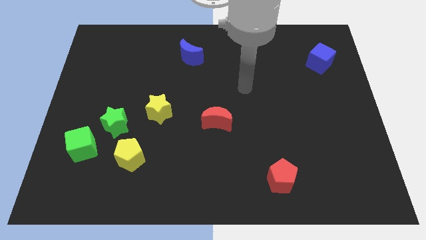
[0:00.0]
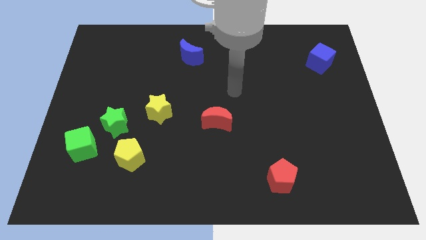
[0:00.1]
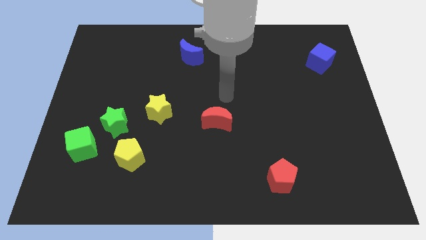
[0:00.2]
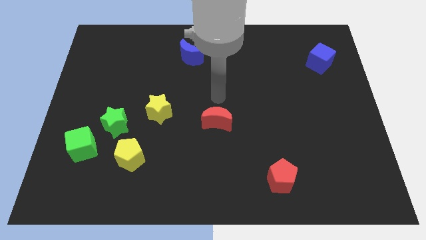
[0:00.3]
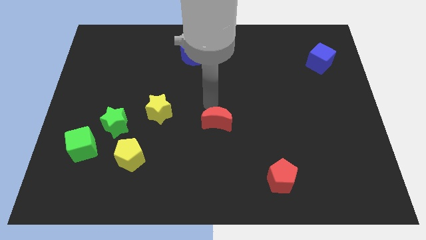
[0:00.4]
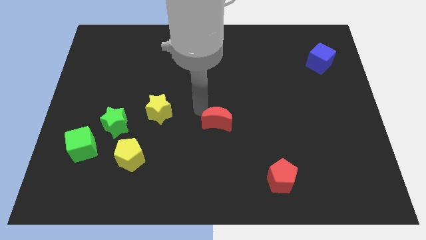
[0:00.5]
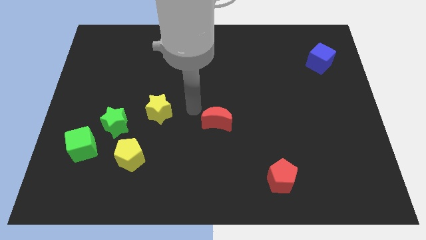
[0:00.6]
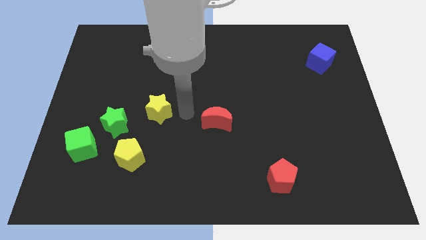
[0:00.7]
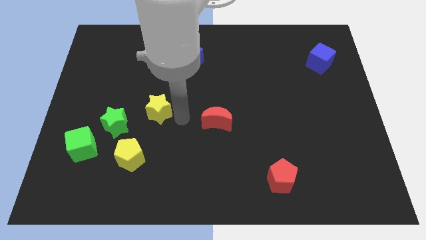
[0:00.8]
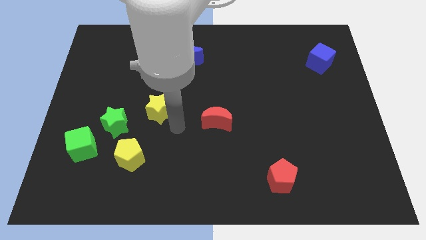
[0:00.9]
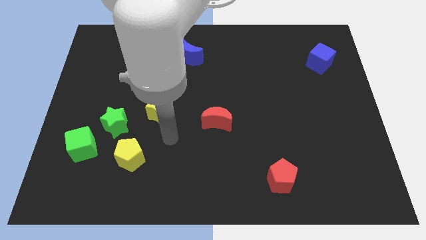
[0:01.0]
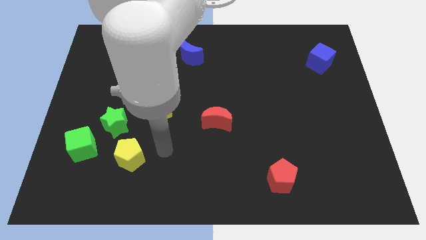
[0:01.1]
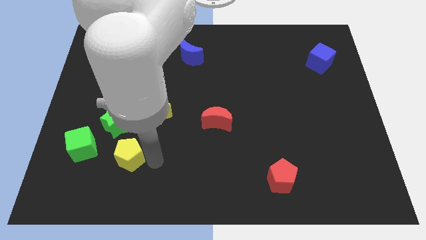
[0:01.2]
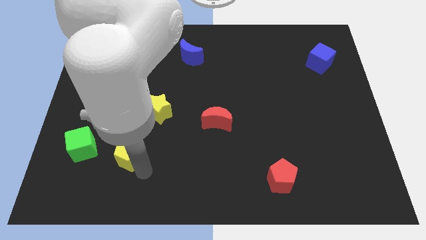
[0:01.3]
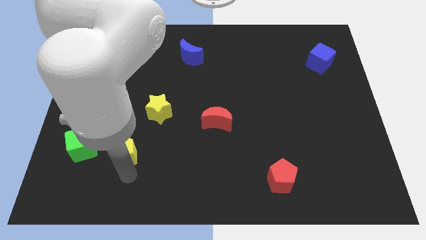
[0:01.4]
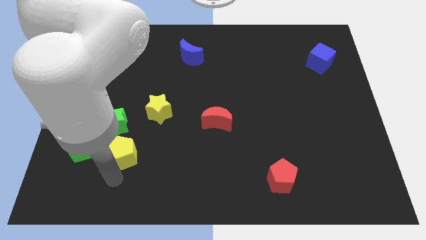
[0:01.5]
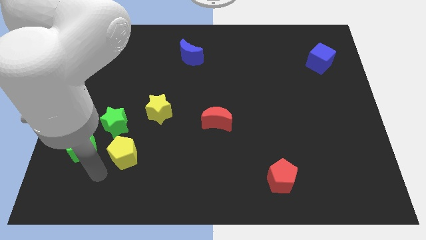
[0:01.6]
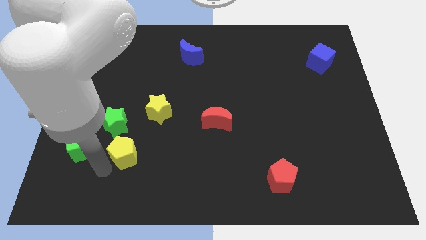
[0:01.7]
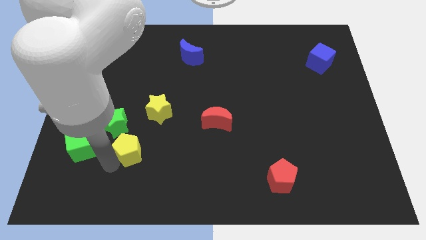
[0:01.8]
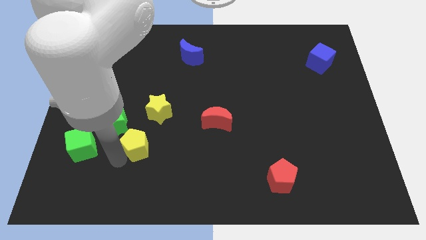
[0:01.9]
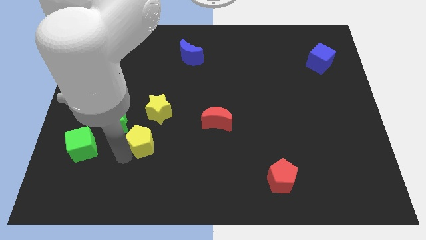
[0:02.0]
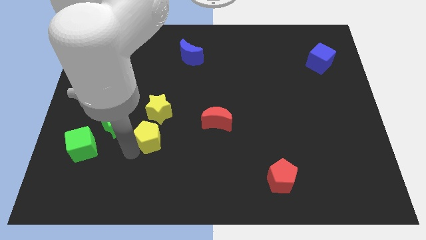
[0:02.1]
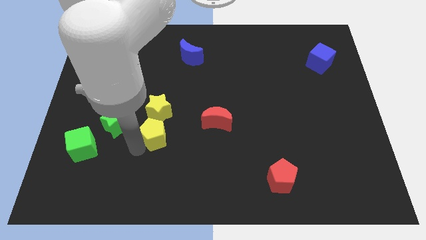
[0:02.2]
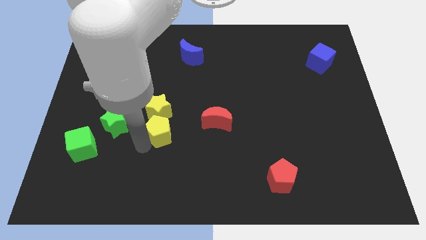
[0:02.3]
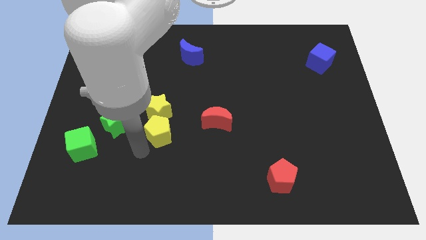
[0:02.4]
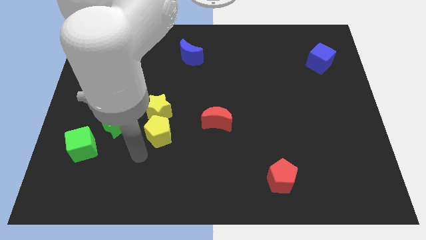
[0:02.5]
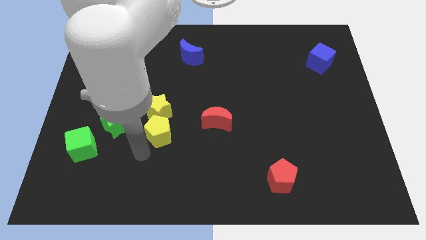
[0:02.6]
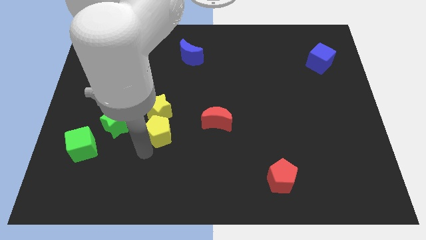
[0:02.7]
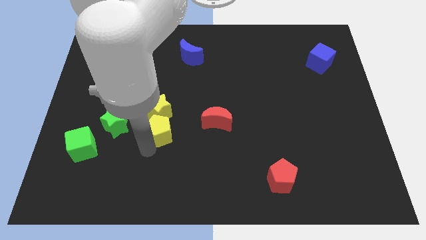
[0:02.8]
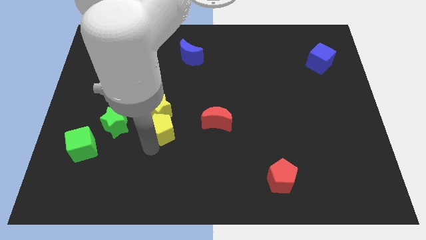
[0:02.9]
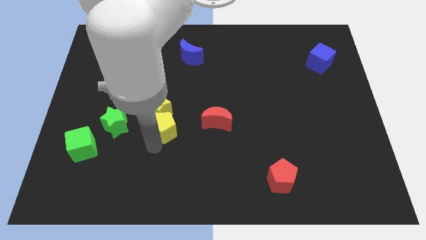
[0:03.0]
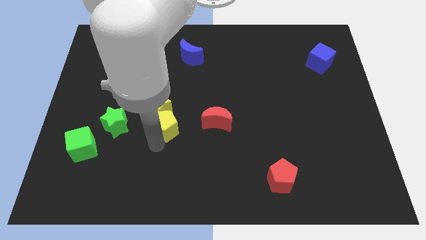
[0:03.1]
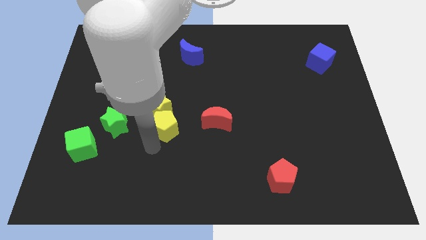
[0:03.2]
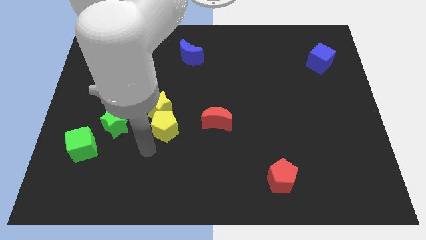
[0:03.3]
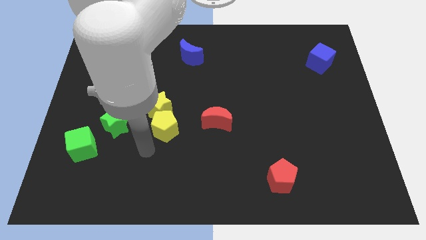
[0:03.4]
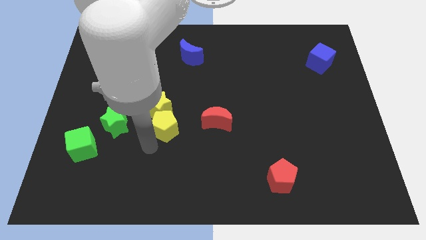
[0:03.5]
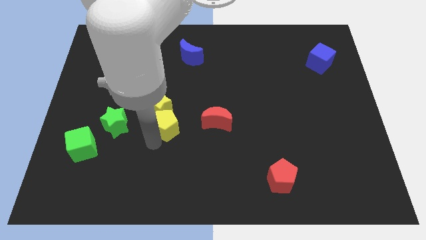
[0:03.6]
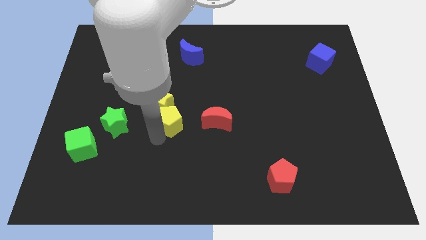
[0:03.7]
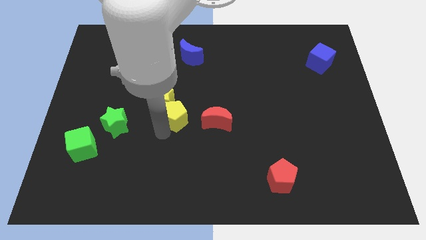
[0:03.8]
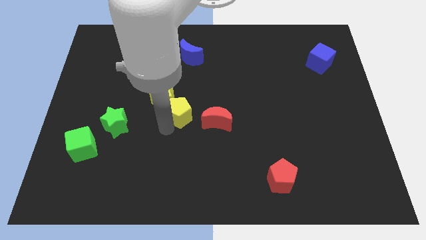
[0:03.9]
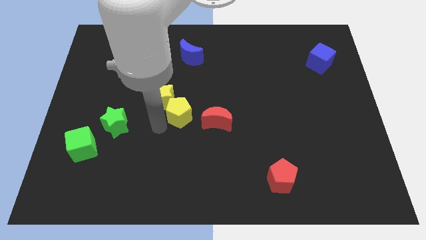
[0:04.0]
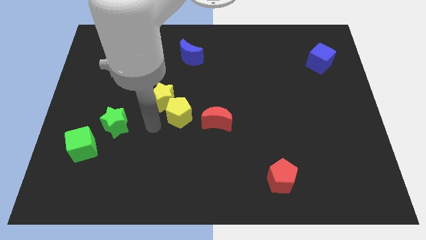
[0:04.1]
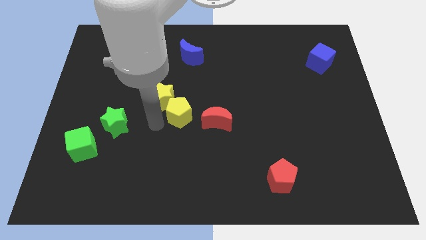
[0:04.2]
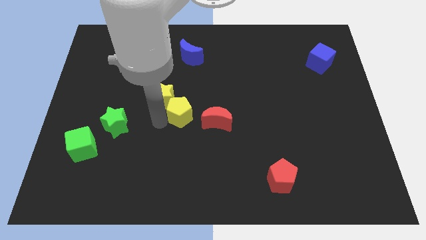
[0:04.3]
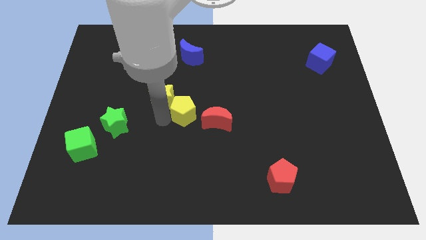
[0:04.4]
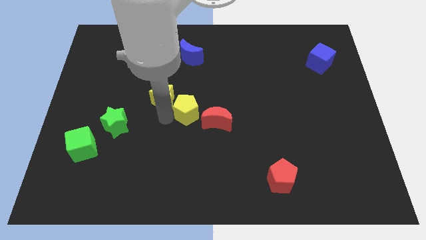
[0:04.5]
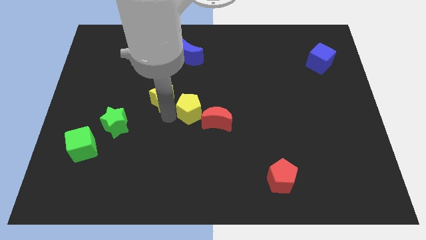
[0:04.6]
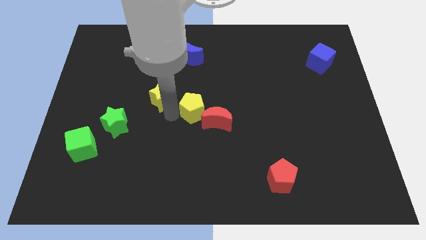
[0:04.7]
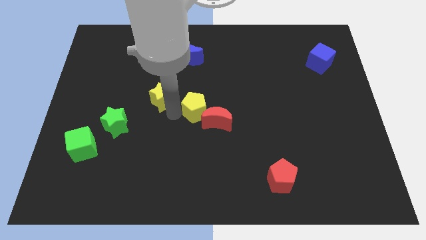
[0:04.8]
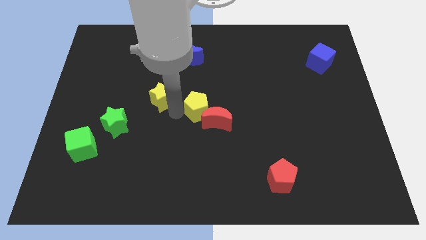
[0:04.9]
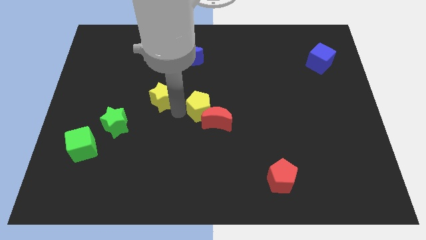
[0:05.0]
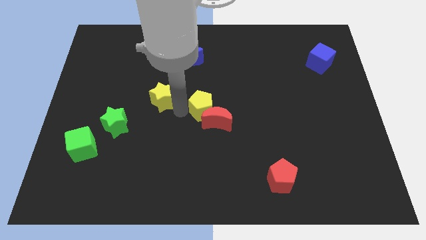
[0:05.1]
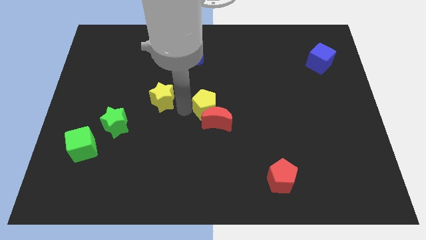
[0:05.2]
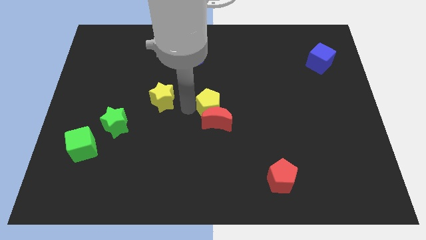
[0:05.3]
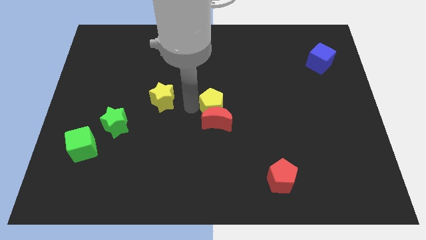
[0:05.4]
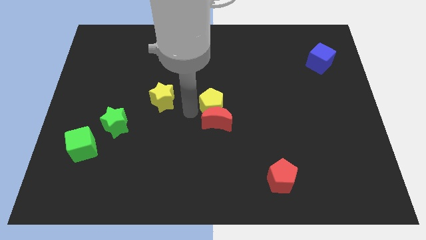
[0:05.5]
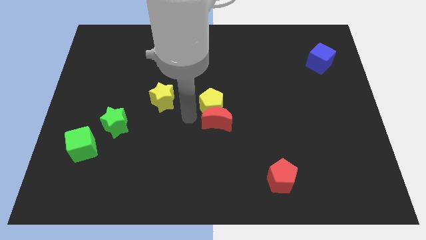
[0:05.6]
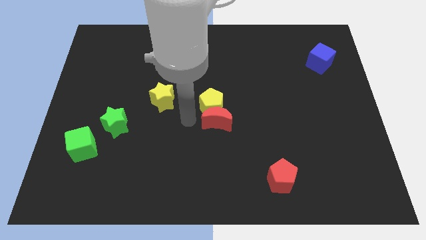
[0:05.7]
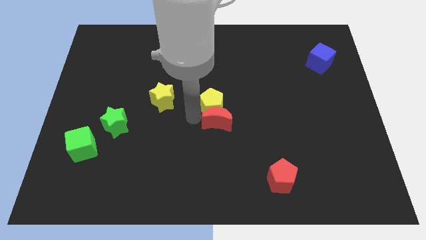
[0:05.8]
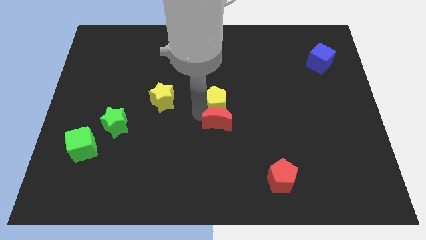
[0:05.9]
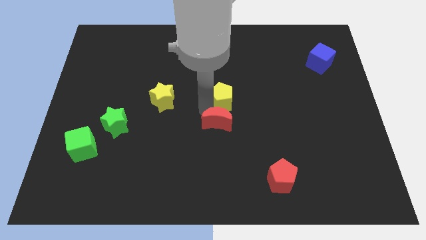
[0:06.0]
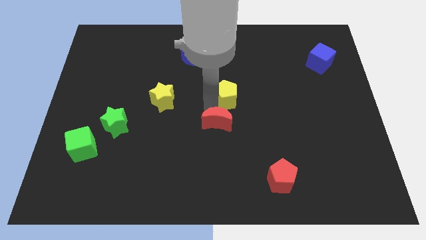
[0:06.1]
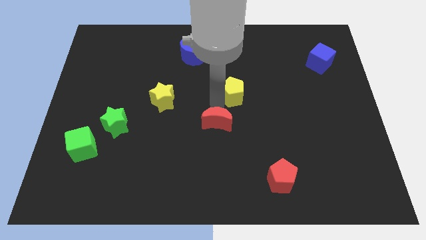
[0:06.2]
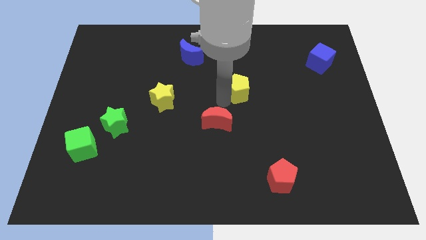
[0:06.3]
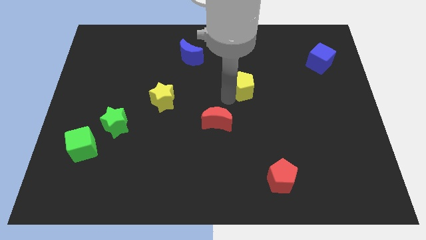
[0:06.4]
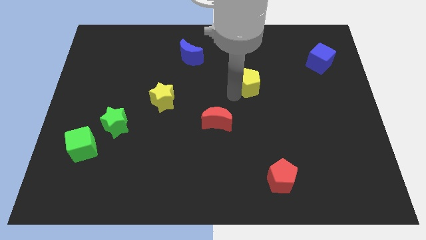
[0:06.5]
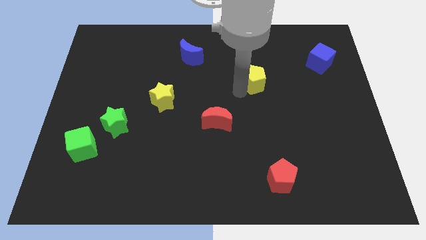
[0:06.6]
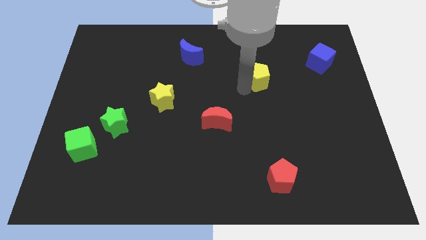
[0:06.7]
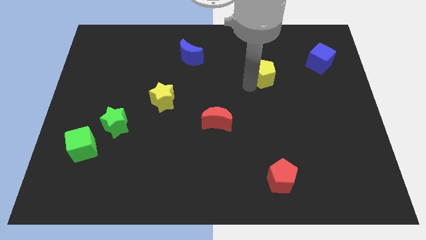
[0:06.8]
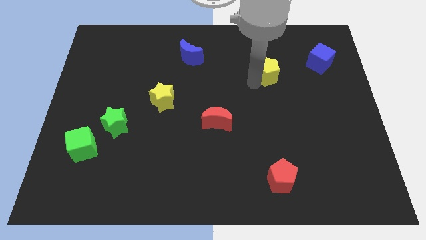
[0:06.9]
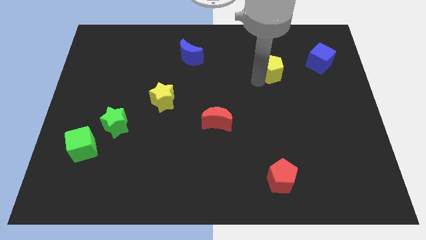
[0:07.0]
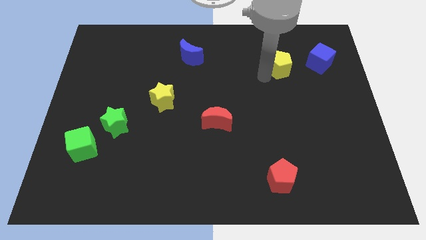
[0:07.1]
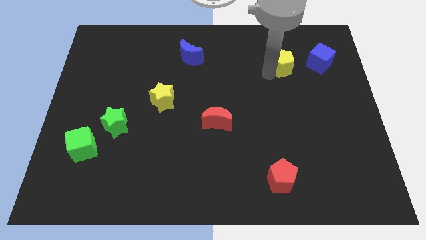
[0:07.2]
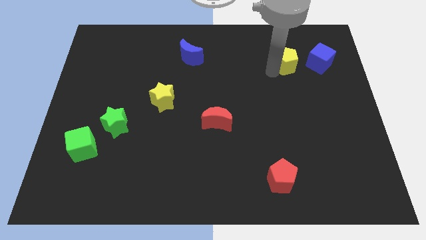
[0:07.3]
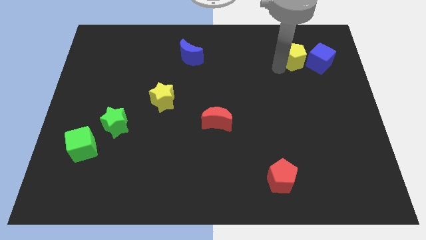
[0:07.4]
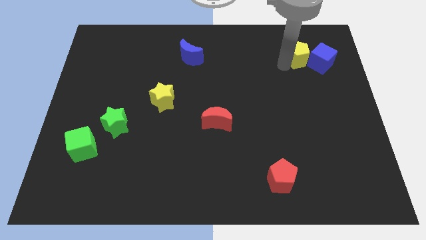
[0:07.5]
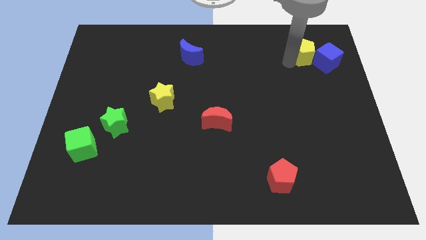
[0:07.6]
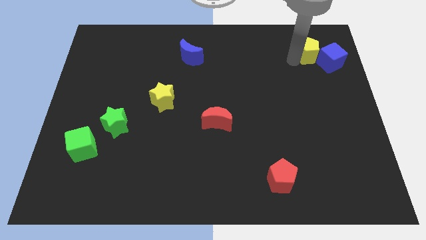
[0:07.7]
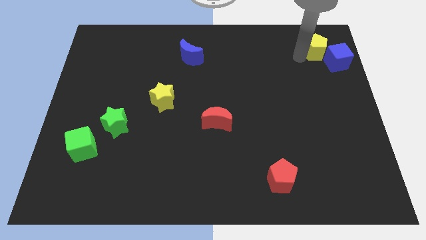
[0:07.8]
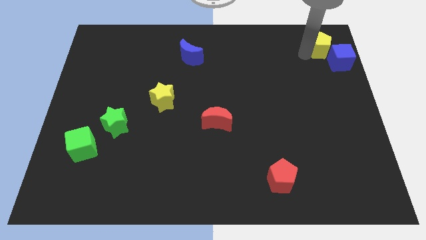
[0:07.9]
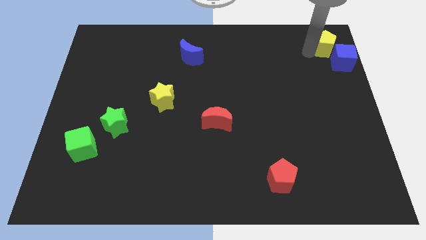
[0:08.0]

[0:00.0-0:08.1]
put the yellow pentagon to the upper right corner
